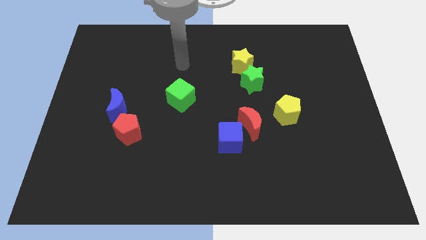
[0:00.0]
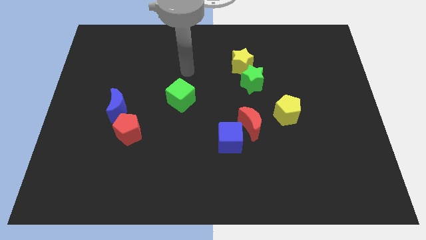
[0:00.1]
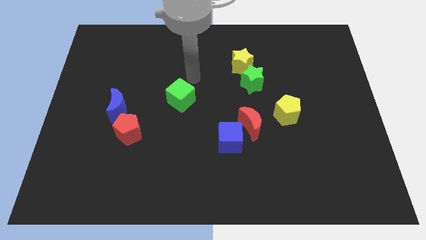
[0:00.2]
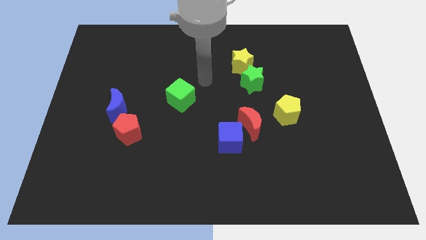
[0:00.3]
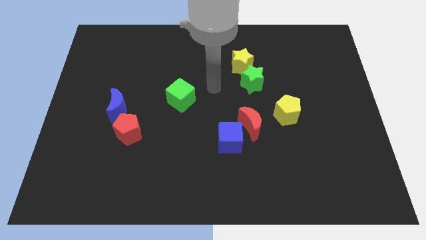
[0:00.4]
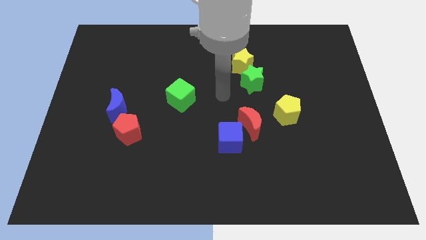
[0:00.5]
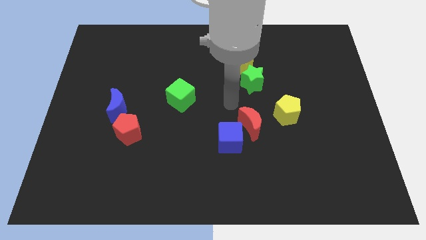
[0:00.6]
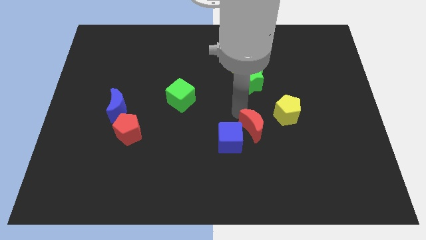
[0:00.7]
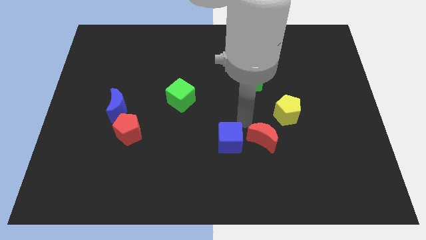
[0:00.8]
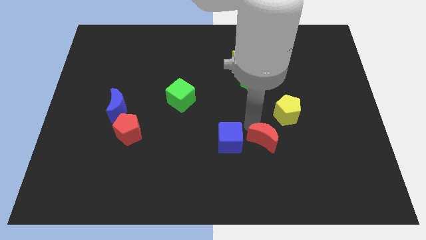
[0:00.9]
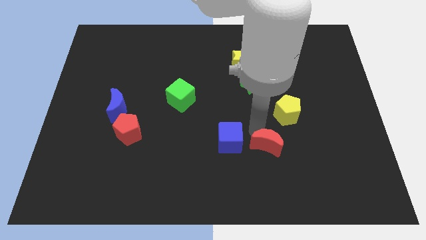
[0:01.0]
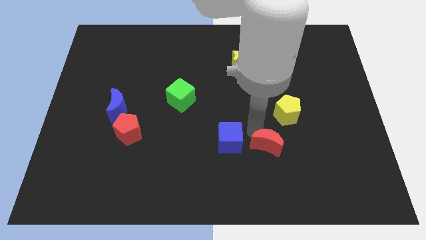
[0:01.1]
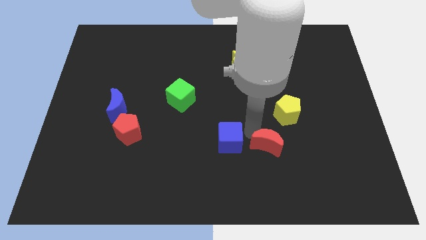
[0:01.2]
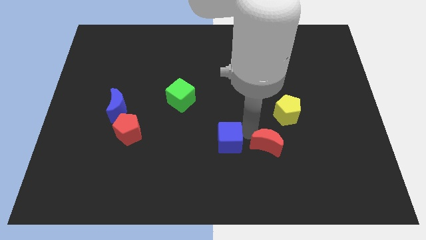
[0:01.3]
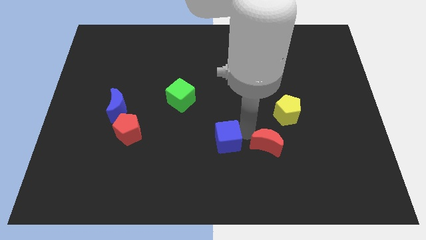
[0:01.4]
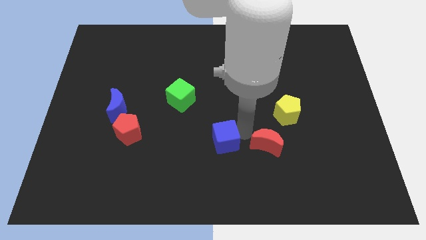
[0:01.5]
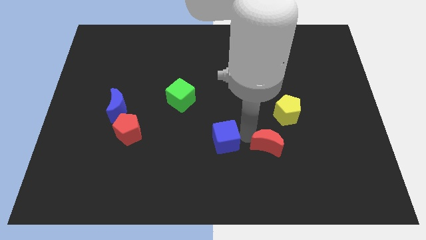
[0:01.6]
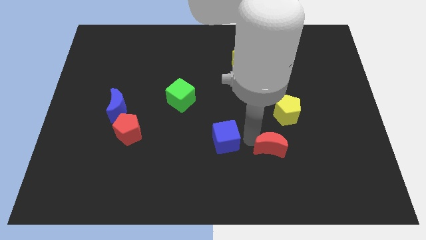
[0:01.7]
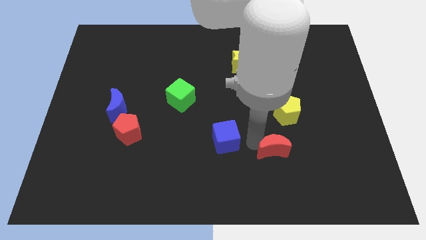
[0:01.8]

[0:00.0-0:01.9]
pull the blue cube apart from the red moon

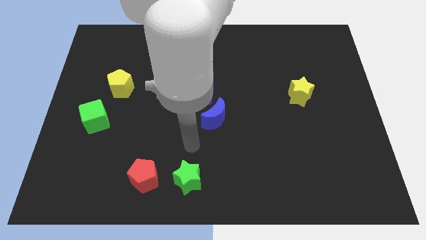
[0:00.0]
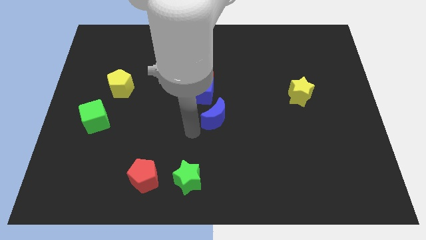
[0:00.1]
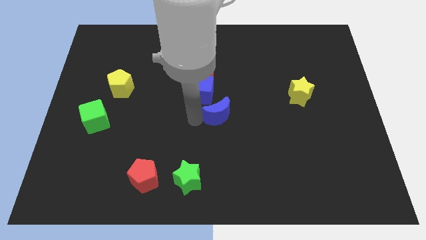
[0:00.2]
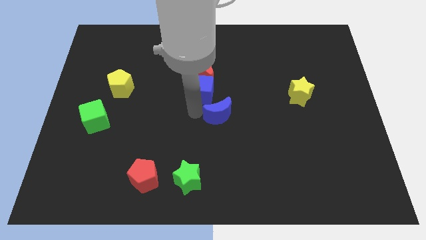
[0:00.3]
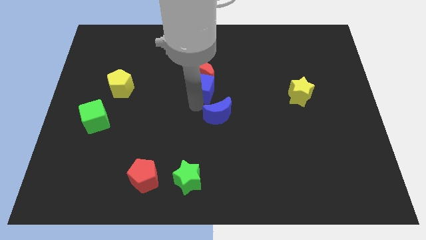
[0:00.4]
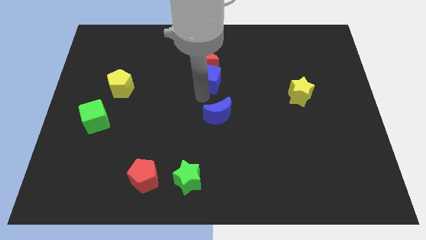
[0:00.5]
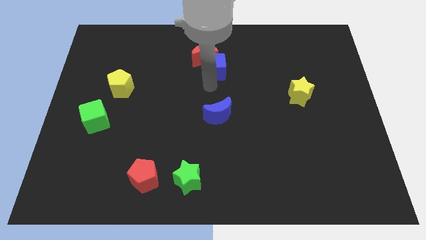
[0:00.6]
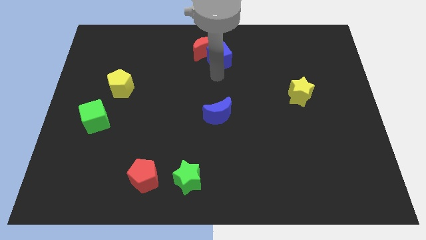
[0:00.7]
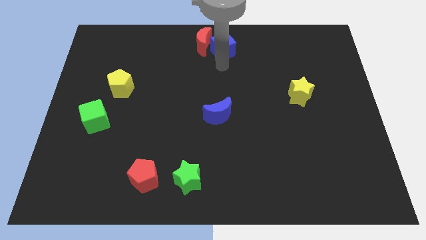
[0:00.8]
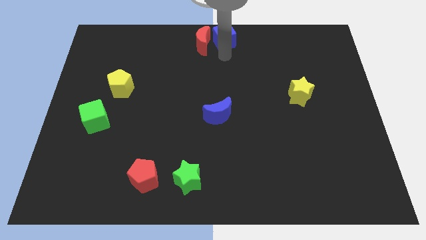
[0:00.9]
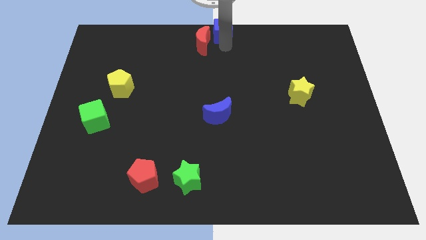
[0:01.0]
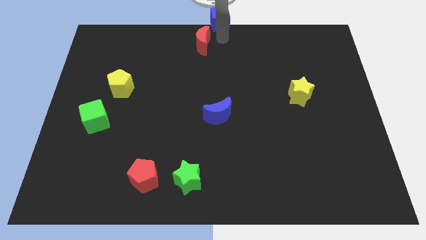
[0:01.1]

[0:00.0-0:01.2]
separate the red moon from the blue cube

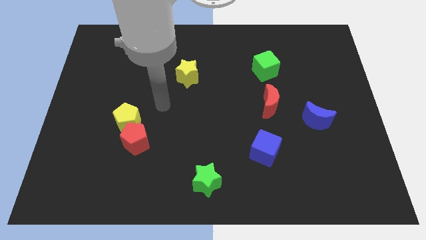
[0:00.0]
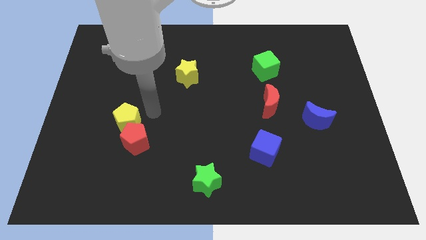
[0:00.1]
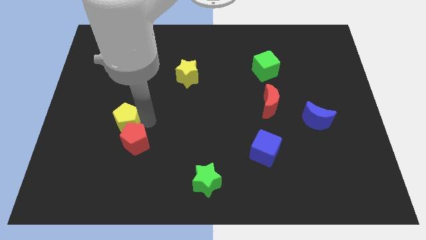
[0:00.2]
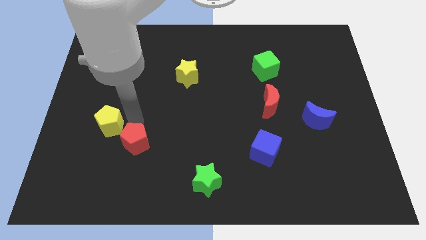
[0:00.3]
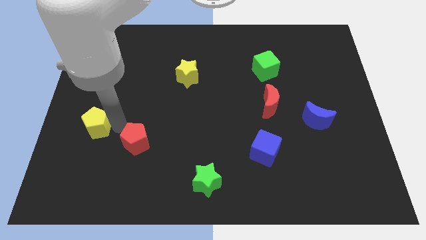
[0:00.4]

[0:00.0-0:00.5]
move the red pentagon away from the yellow pentagon

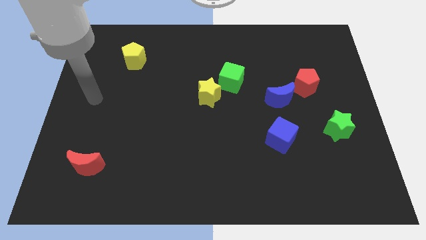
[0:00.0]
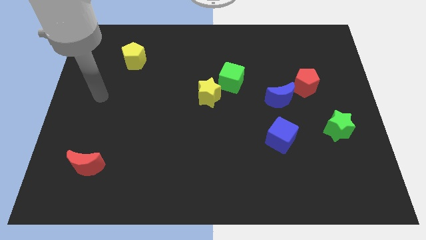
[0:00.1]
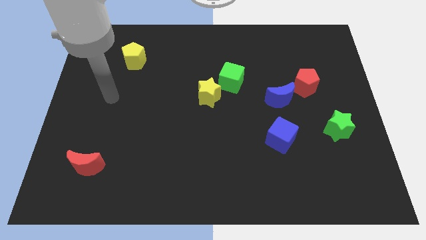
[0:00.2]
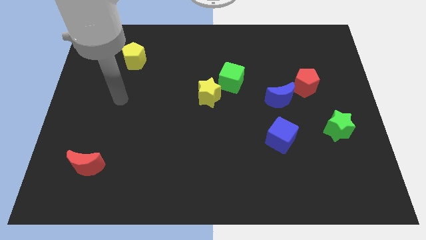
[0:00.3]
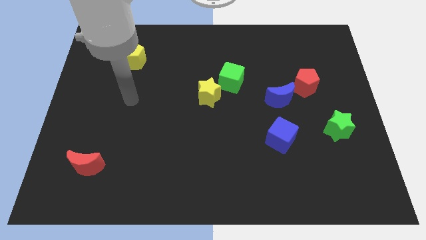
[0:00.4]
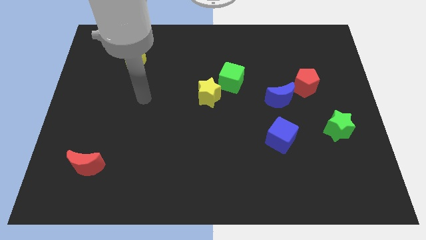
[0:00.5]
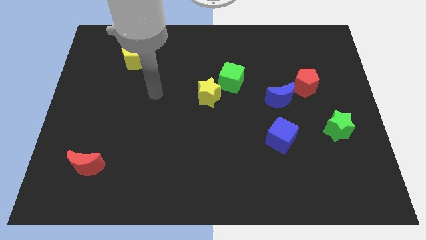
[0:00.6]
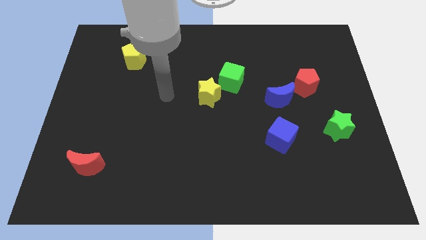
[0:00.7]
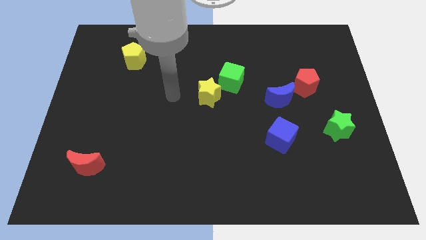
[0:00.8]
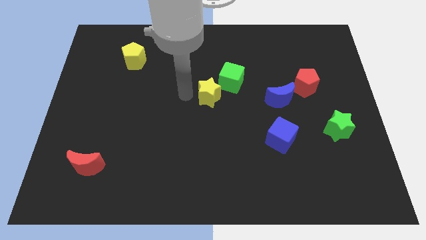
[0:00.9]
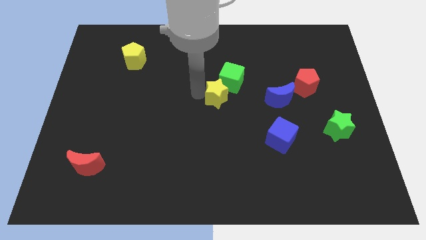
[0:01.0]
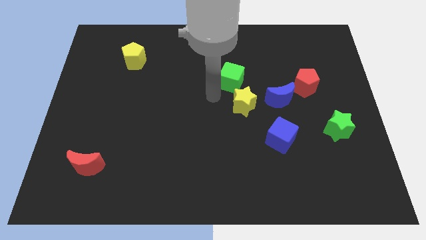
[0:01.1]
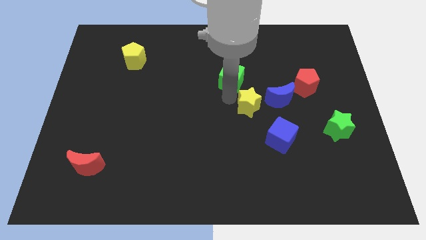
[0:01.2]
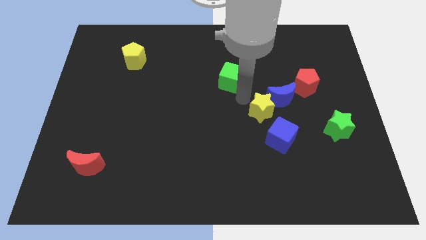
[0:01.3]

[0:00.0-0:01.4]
move the green cube away from the yellow star

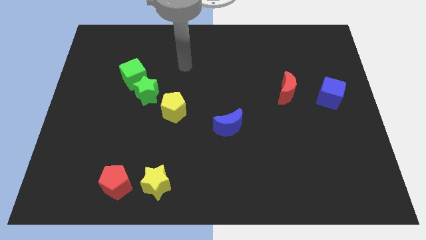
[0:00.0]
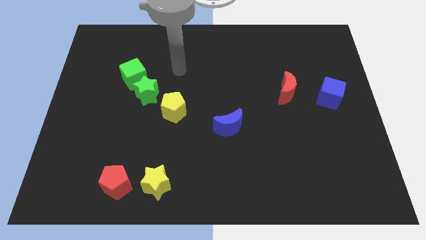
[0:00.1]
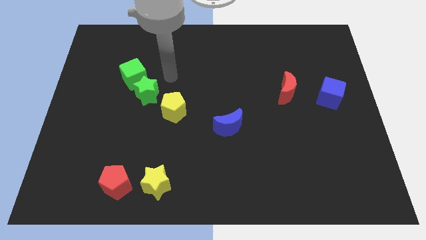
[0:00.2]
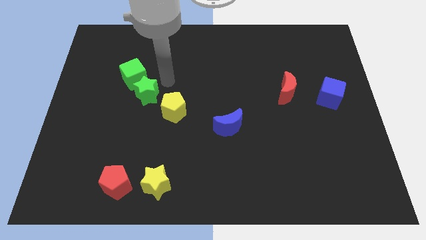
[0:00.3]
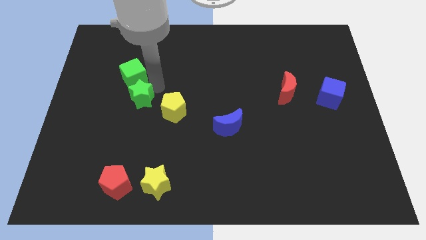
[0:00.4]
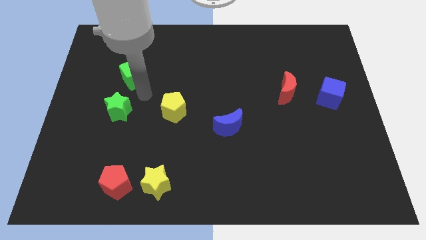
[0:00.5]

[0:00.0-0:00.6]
separate the green cube from the green star

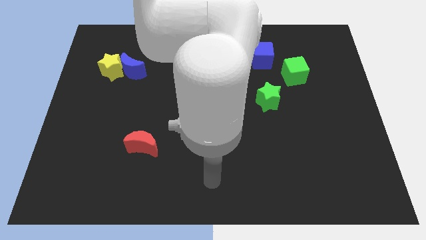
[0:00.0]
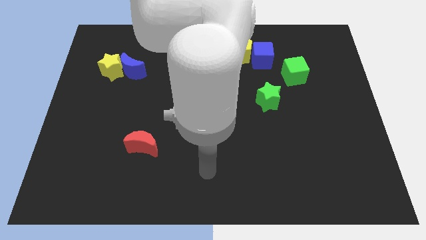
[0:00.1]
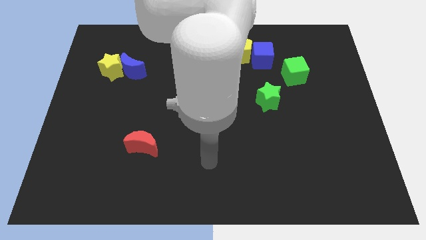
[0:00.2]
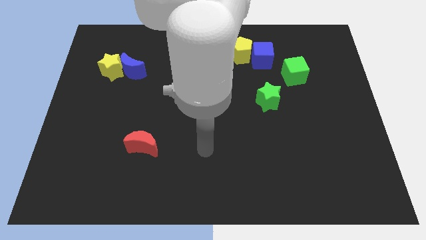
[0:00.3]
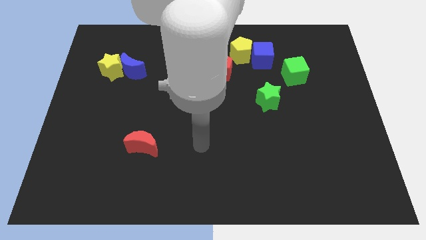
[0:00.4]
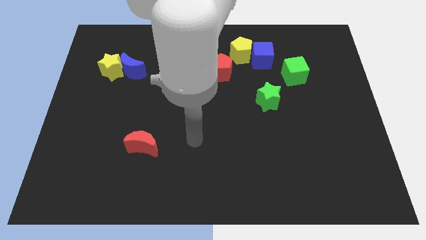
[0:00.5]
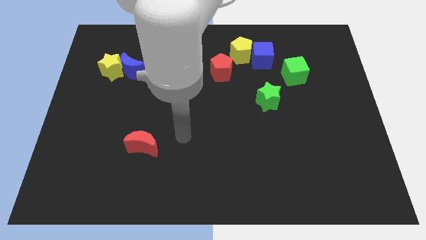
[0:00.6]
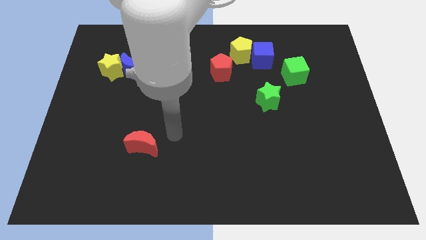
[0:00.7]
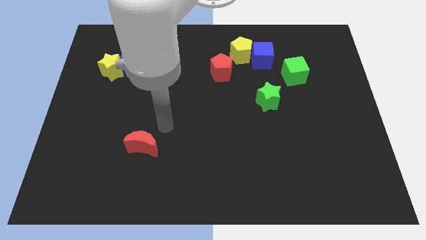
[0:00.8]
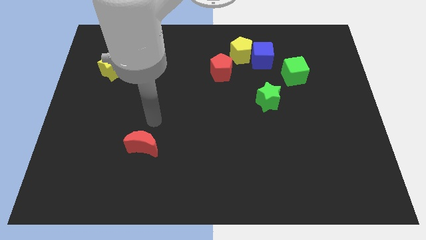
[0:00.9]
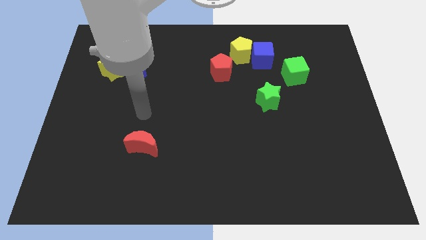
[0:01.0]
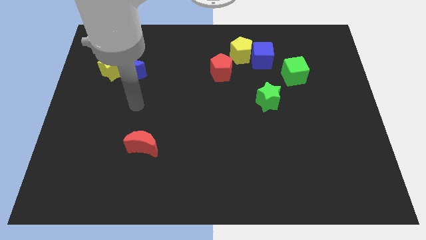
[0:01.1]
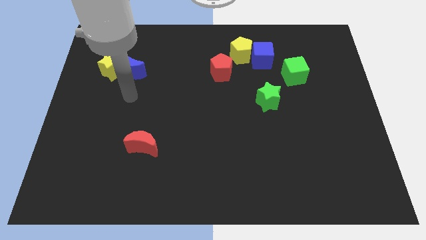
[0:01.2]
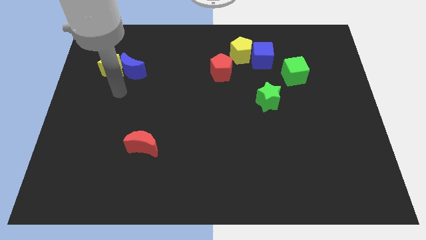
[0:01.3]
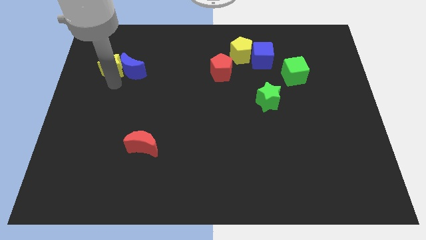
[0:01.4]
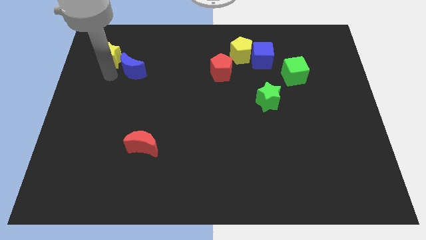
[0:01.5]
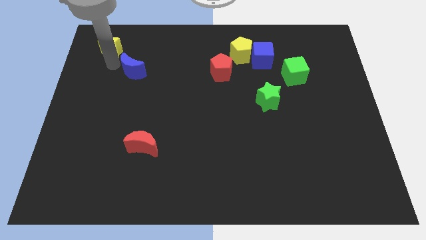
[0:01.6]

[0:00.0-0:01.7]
move the blue moon away from the yellow star

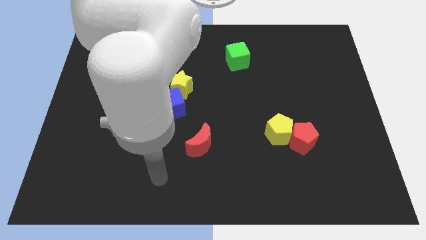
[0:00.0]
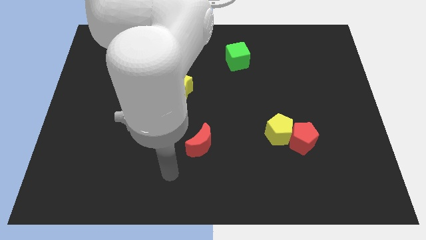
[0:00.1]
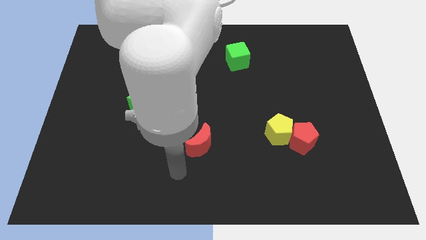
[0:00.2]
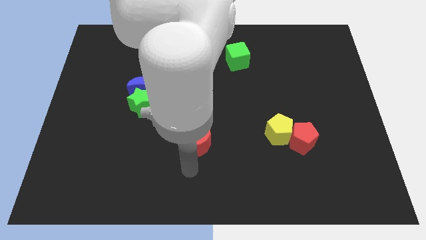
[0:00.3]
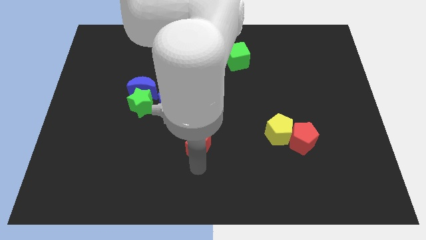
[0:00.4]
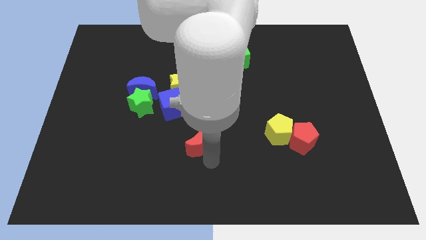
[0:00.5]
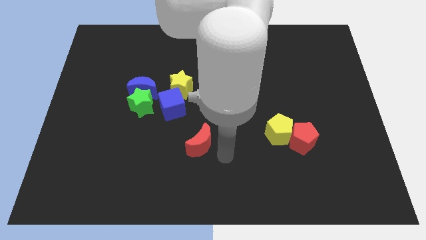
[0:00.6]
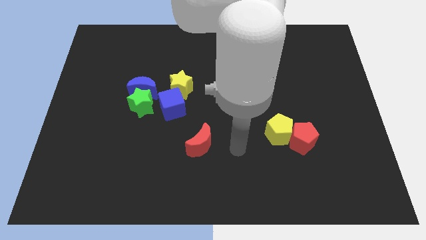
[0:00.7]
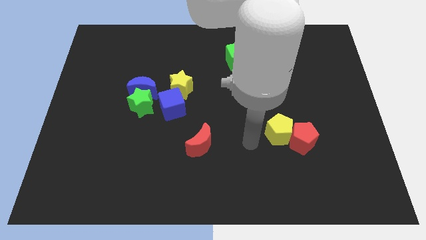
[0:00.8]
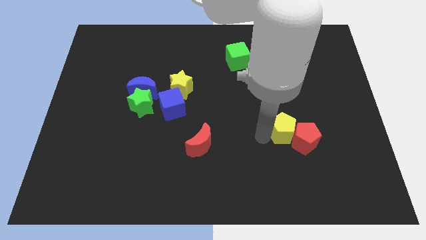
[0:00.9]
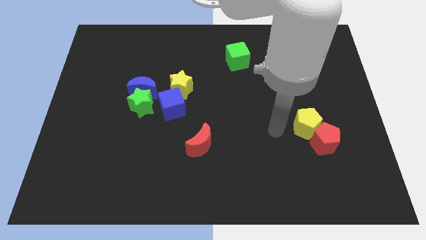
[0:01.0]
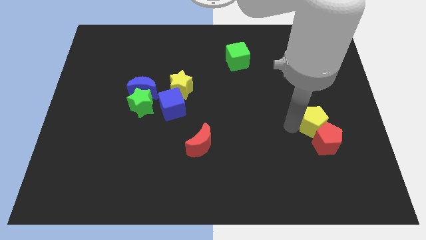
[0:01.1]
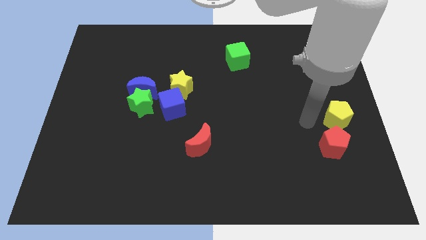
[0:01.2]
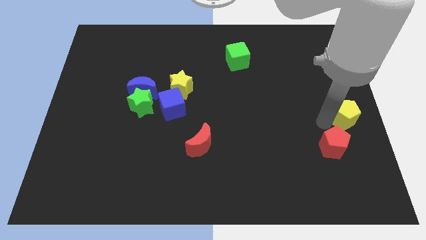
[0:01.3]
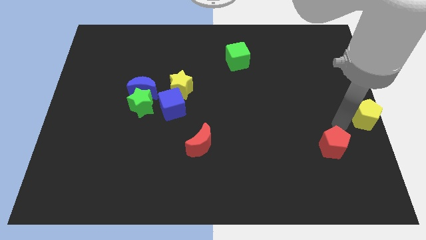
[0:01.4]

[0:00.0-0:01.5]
separate the red pentagon from the yellow pentagon

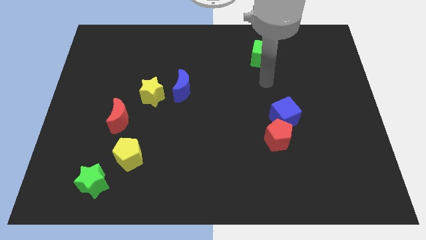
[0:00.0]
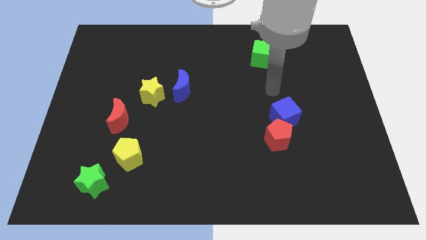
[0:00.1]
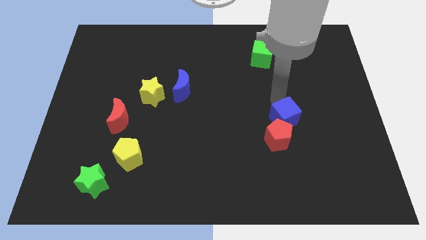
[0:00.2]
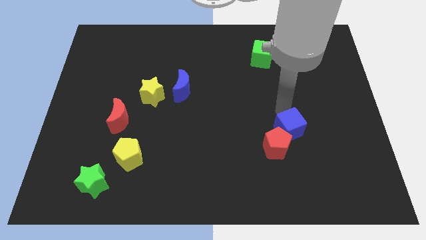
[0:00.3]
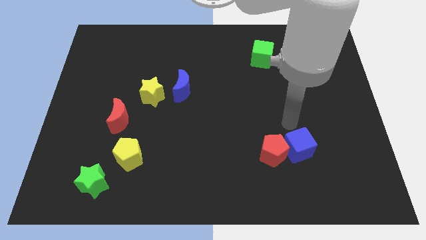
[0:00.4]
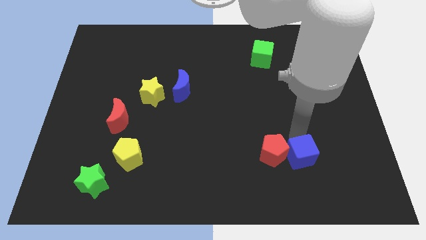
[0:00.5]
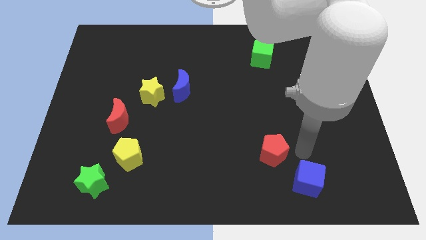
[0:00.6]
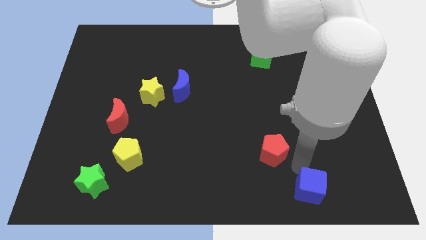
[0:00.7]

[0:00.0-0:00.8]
pull the red pentagon apart from the blue cube
